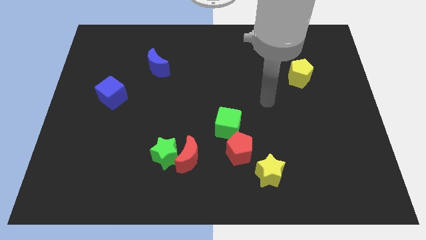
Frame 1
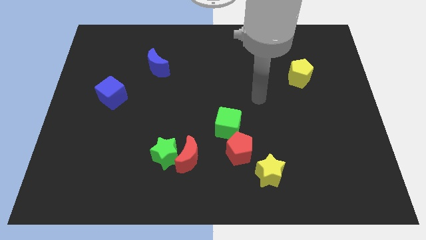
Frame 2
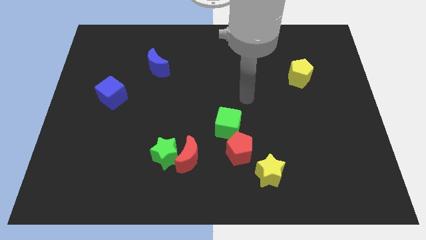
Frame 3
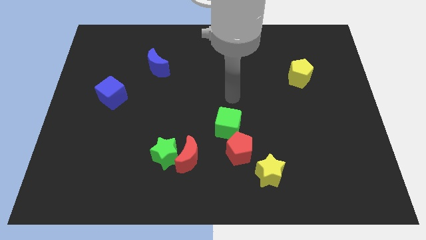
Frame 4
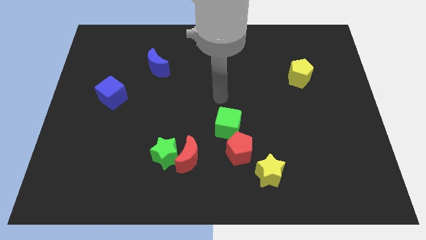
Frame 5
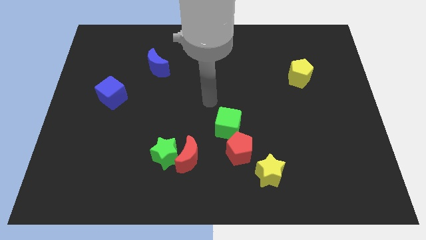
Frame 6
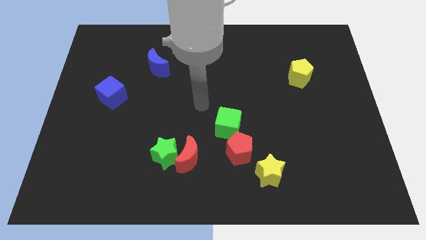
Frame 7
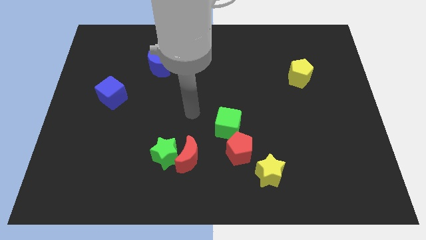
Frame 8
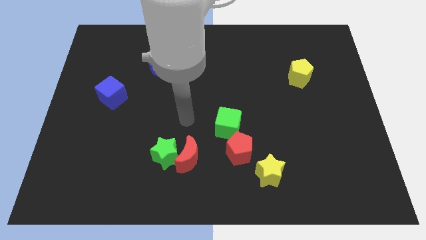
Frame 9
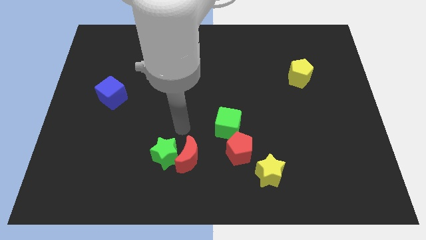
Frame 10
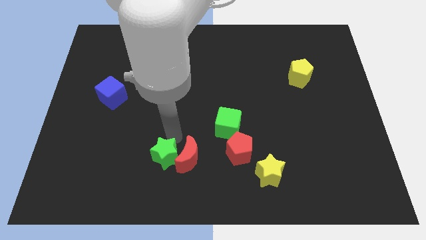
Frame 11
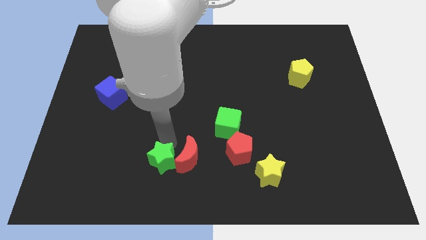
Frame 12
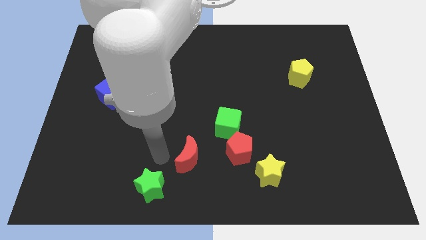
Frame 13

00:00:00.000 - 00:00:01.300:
move the red moon away from the green star

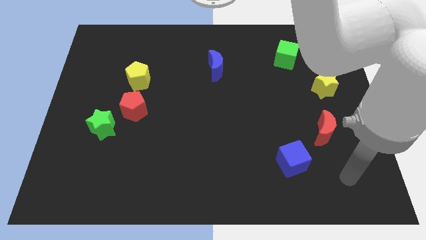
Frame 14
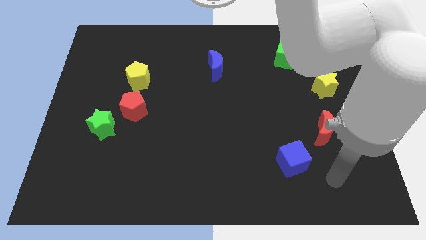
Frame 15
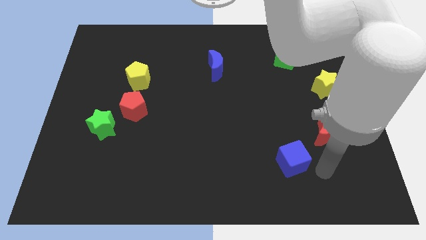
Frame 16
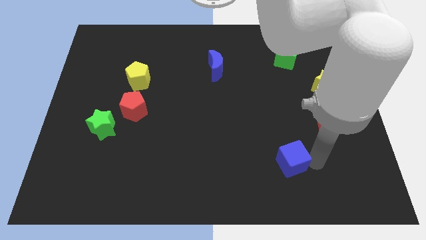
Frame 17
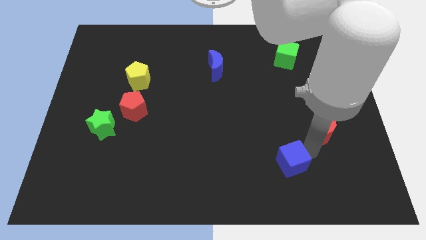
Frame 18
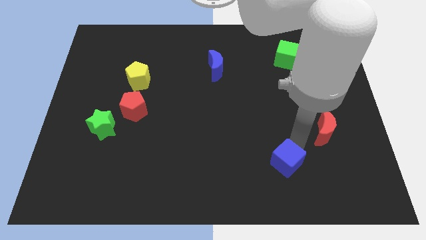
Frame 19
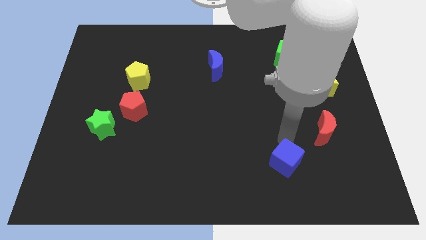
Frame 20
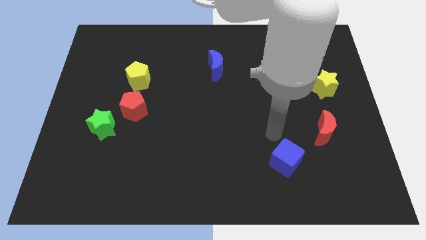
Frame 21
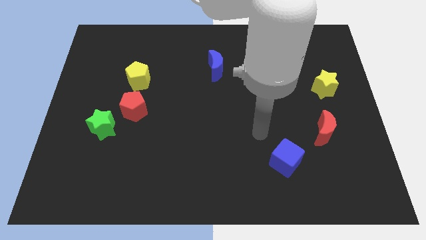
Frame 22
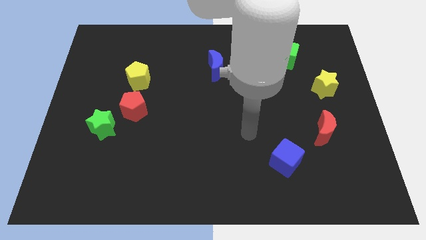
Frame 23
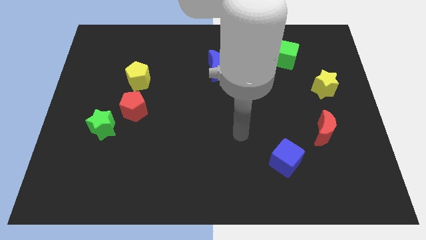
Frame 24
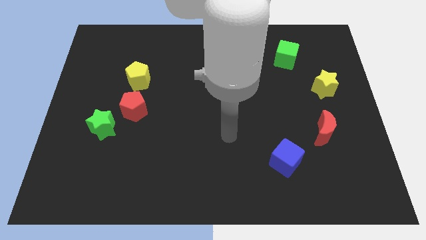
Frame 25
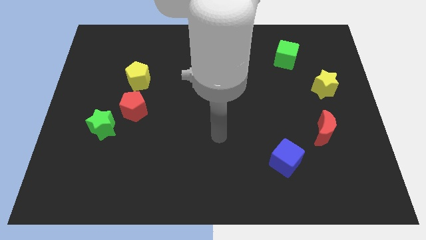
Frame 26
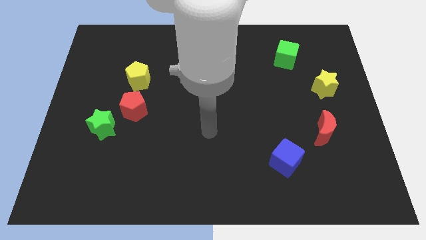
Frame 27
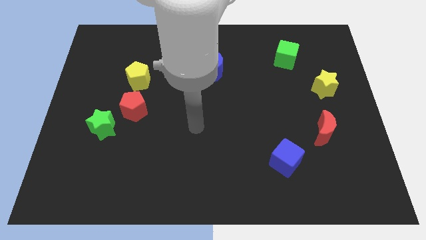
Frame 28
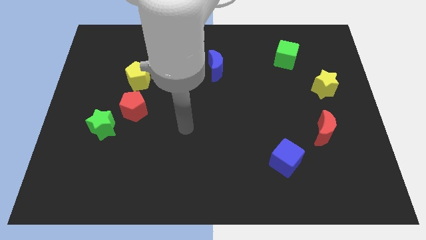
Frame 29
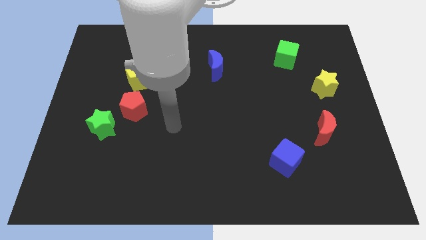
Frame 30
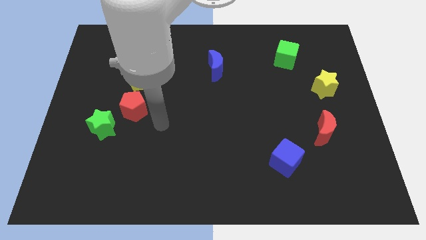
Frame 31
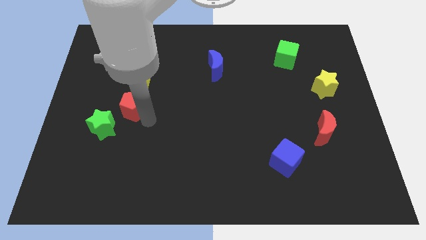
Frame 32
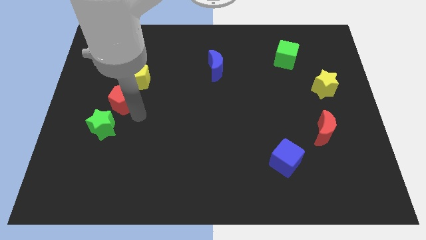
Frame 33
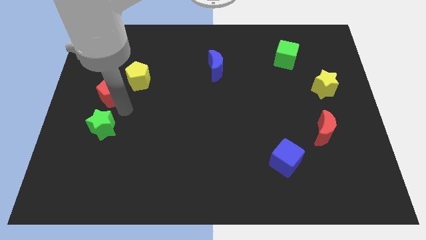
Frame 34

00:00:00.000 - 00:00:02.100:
pull the green star apart from the red pentagon

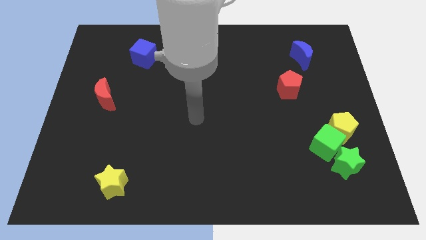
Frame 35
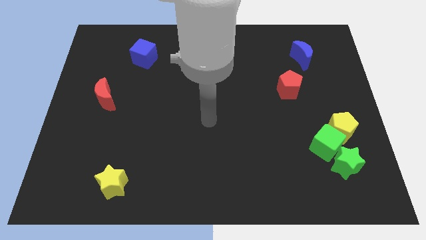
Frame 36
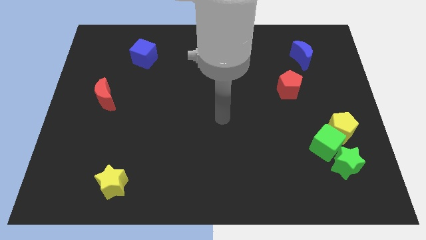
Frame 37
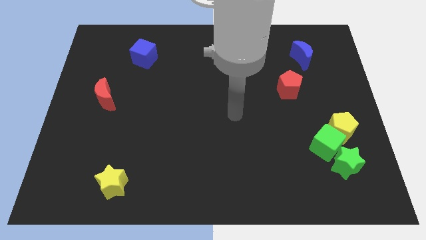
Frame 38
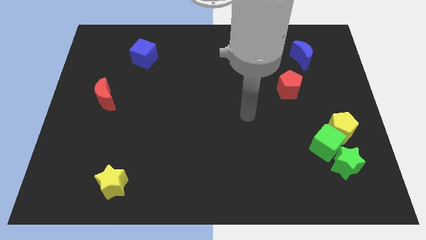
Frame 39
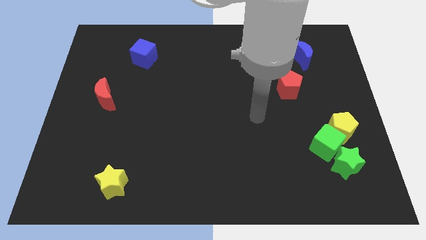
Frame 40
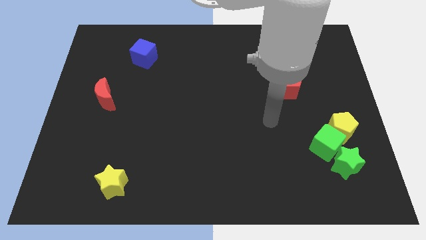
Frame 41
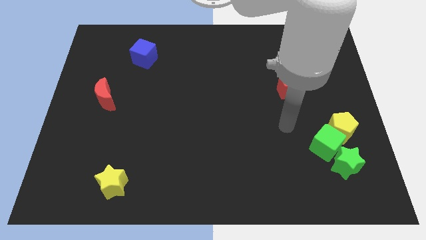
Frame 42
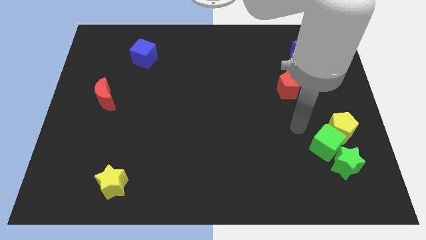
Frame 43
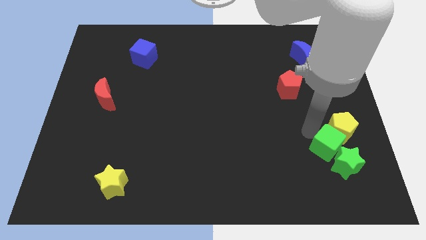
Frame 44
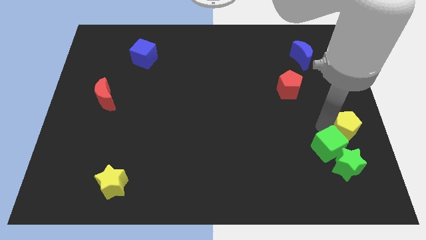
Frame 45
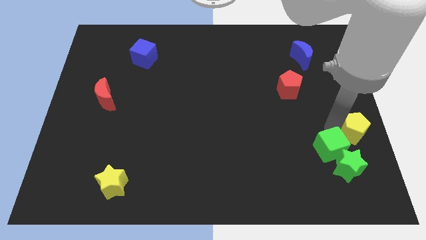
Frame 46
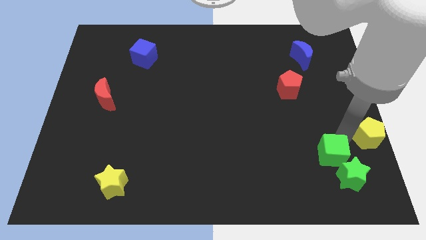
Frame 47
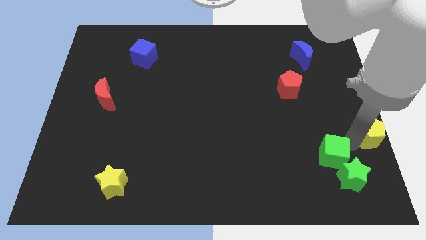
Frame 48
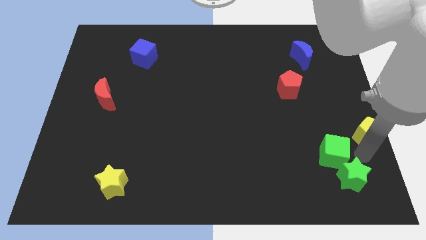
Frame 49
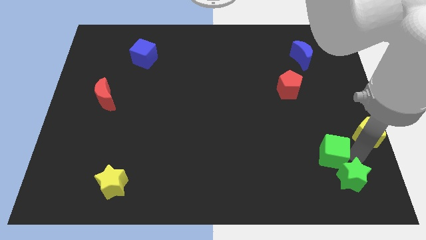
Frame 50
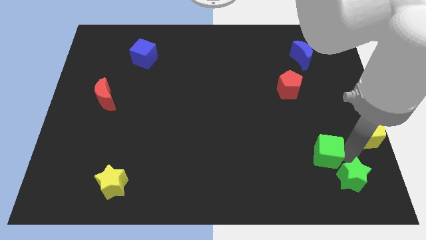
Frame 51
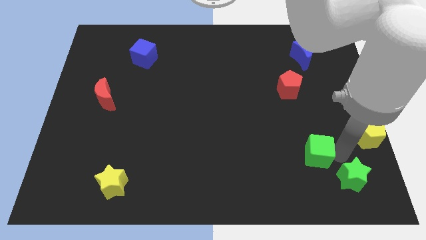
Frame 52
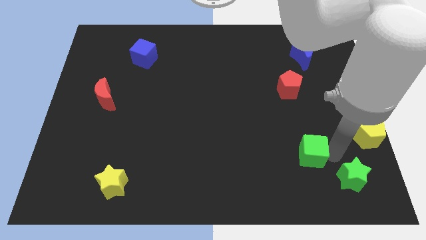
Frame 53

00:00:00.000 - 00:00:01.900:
move the green cube away from the green star and yellow pentagon

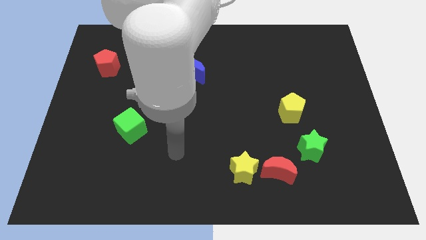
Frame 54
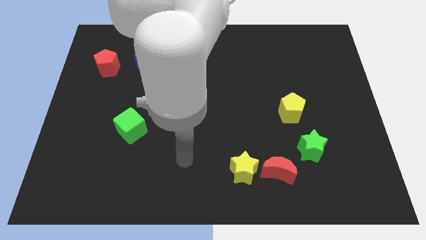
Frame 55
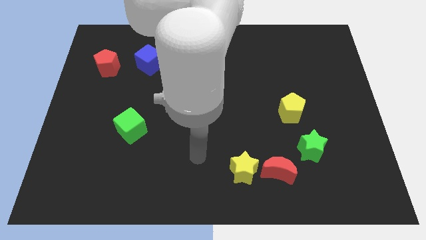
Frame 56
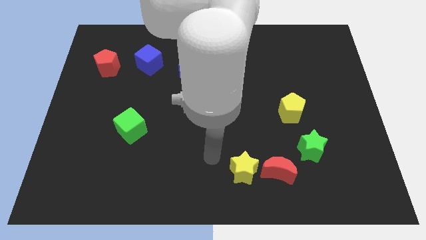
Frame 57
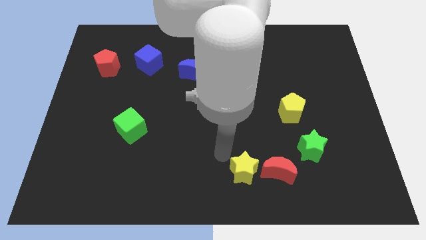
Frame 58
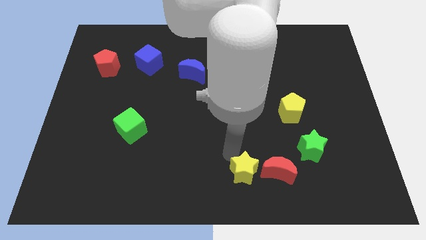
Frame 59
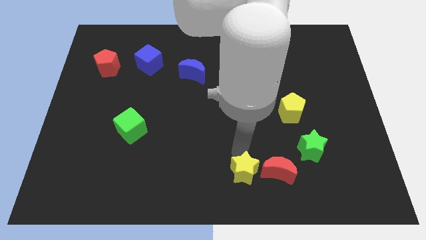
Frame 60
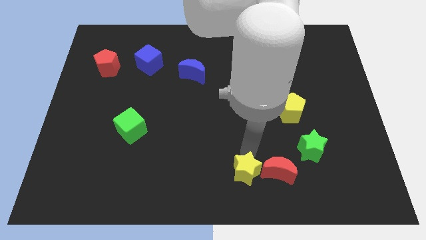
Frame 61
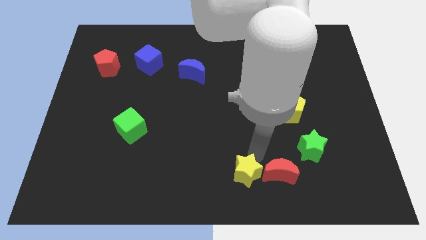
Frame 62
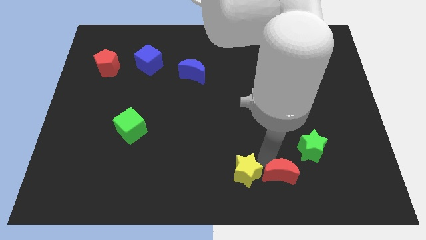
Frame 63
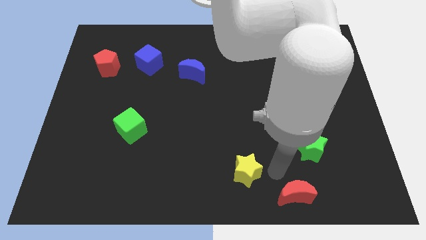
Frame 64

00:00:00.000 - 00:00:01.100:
move the yellow star away from the red moon

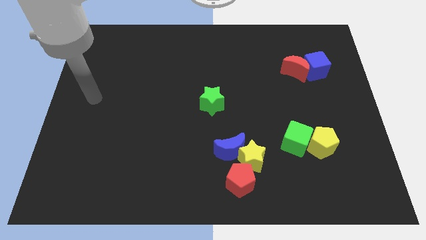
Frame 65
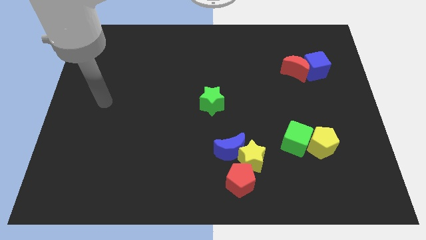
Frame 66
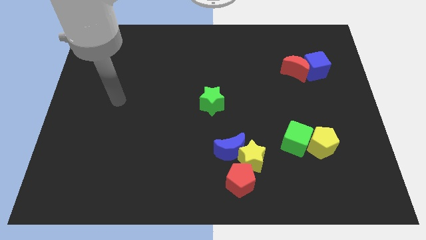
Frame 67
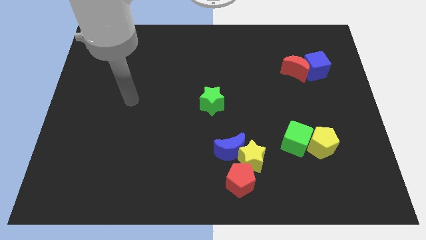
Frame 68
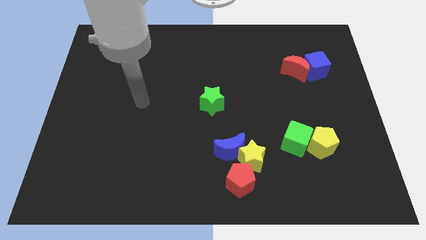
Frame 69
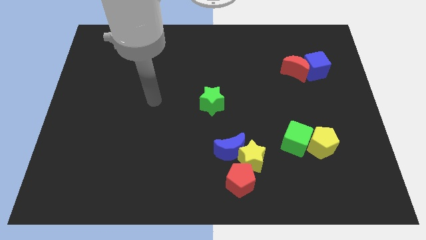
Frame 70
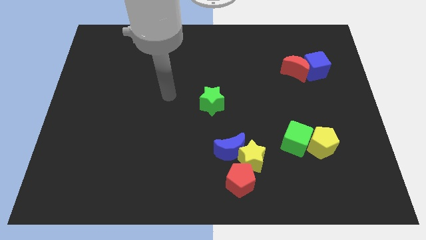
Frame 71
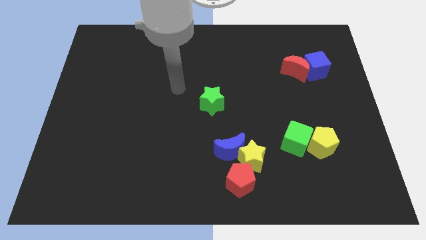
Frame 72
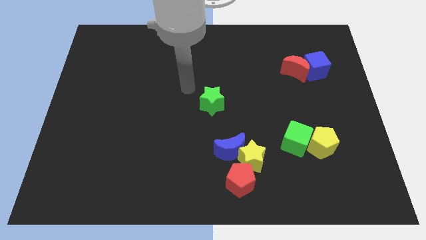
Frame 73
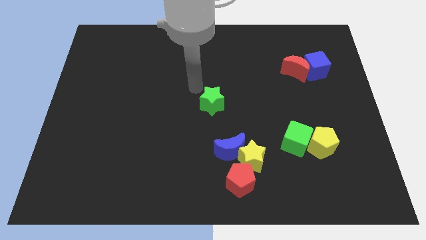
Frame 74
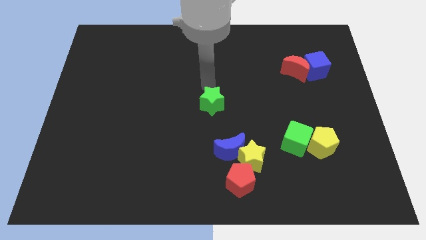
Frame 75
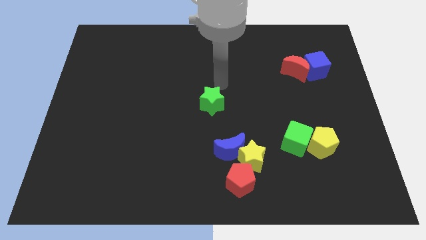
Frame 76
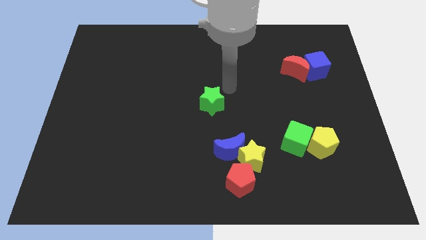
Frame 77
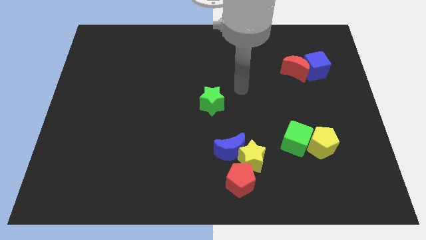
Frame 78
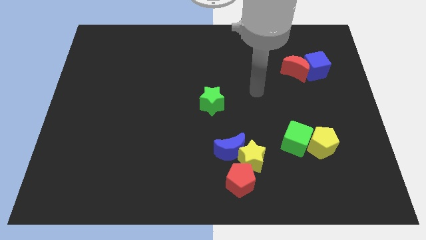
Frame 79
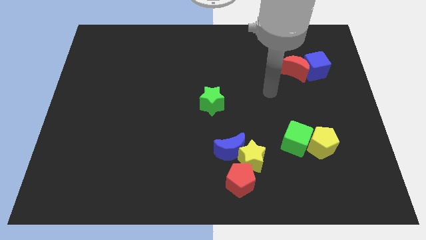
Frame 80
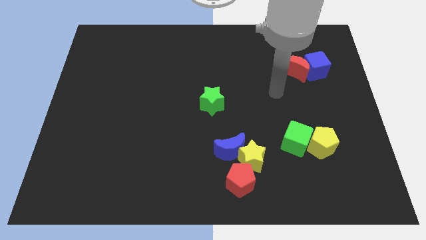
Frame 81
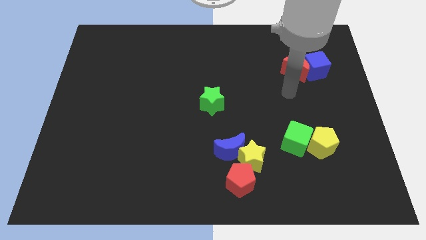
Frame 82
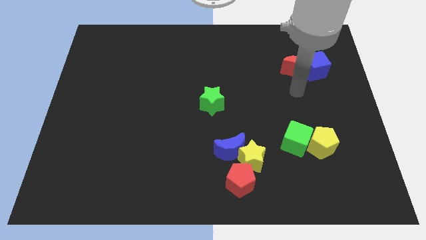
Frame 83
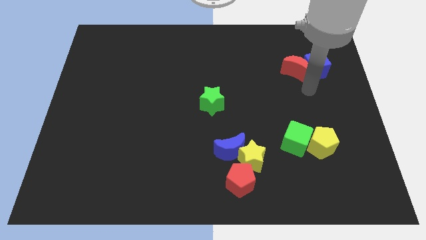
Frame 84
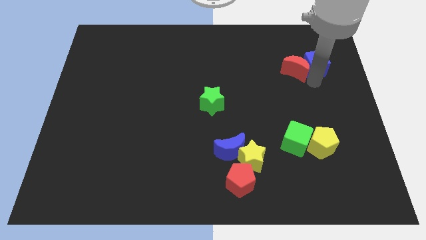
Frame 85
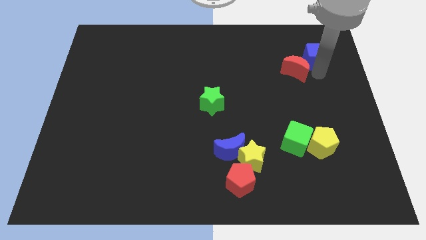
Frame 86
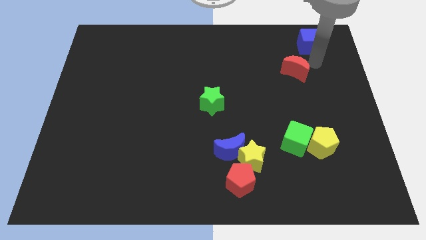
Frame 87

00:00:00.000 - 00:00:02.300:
pull the red moon apart from the blue cube

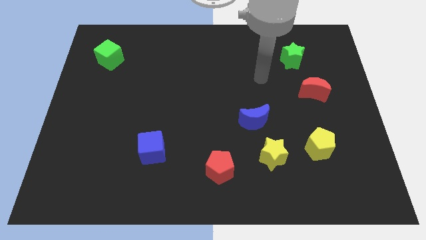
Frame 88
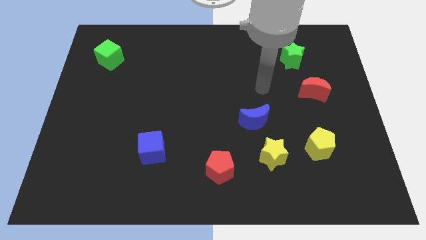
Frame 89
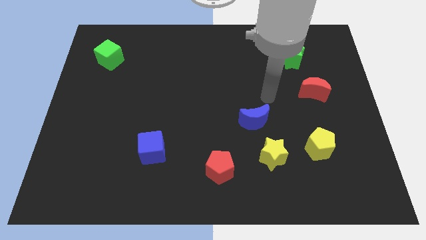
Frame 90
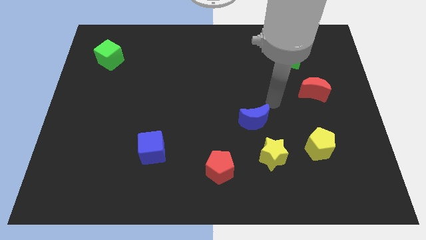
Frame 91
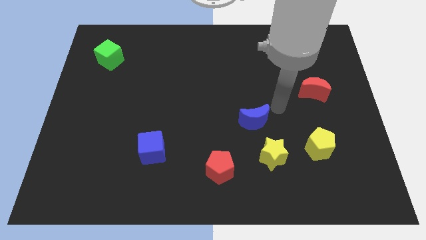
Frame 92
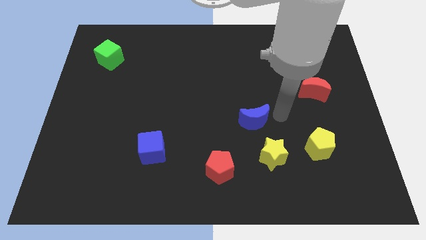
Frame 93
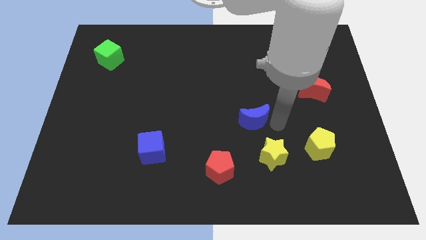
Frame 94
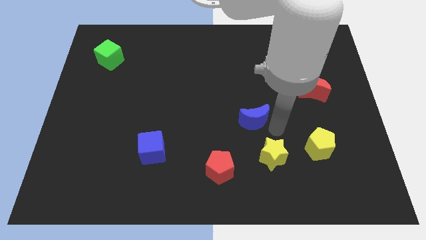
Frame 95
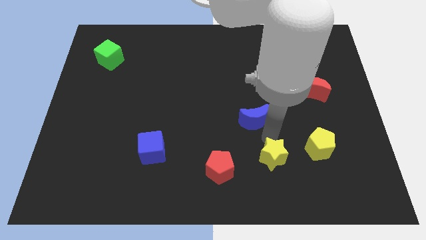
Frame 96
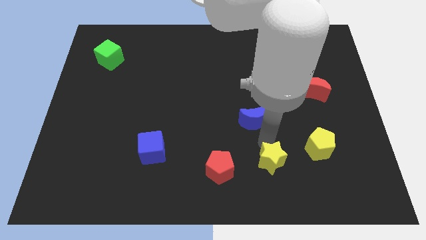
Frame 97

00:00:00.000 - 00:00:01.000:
pull the blue moon apart from the yellow star
